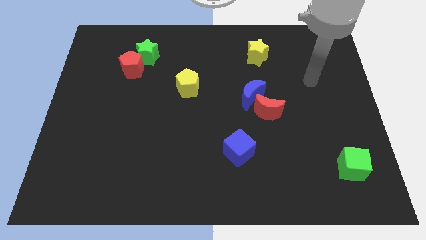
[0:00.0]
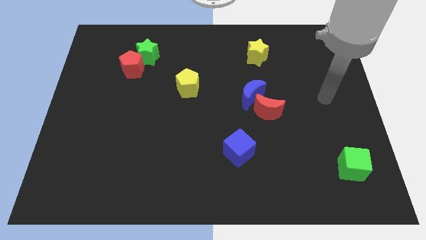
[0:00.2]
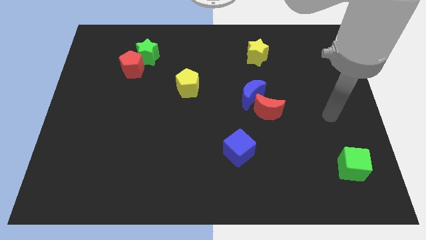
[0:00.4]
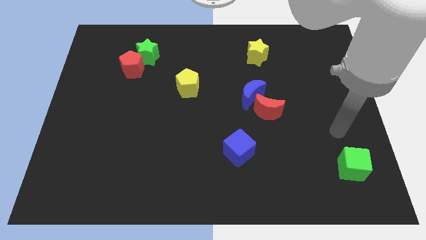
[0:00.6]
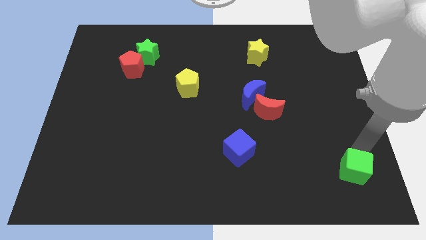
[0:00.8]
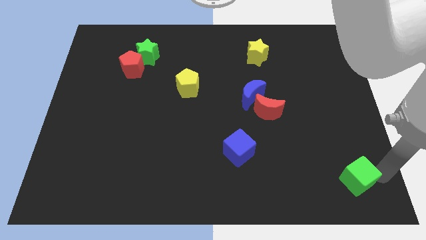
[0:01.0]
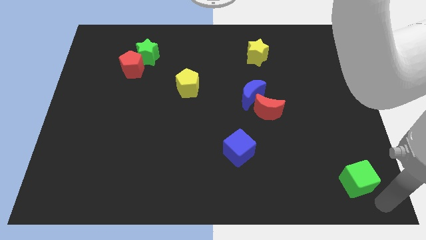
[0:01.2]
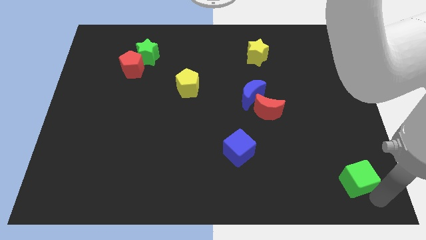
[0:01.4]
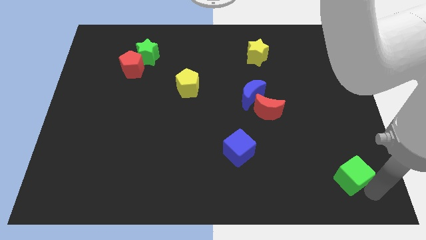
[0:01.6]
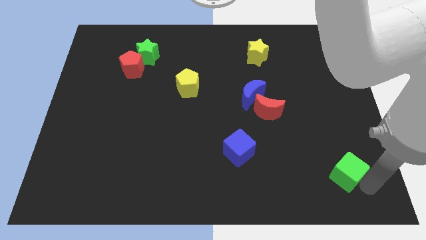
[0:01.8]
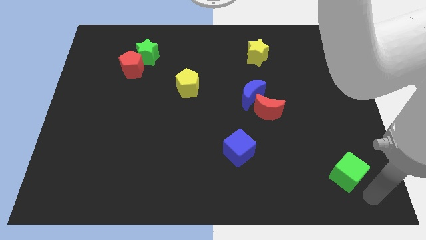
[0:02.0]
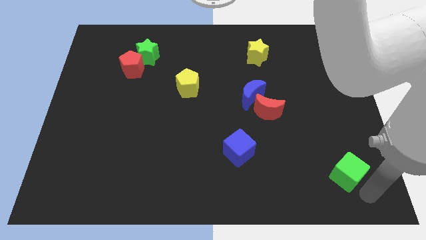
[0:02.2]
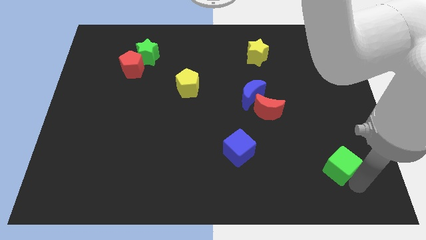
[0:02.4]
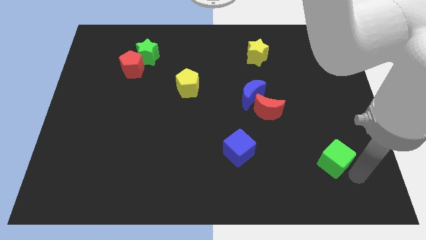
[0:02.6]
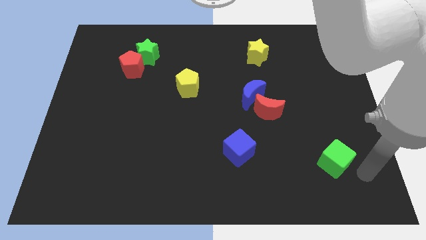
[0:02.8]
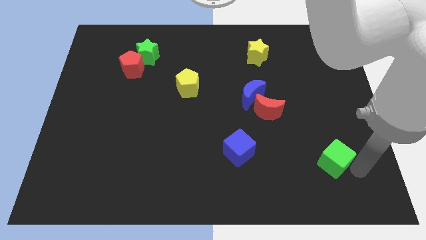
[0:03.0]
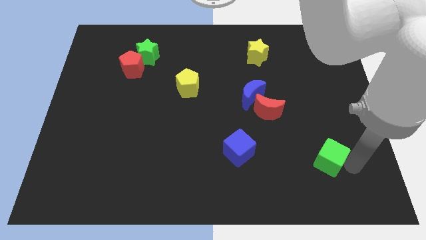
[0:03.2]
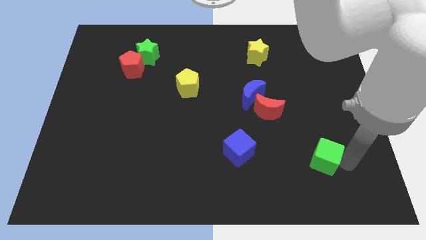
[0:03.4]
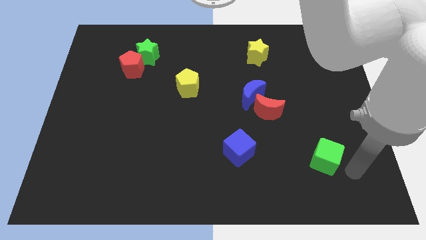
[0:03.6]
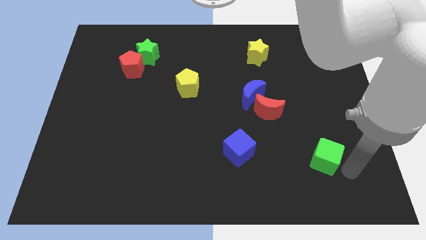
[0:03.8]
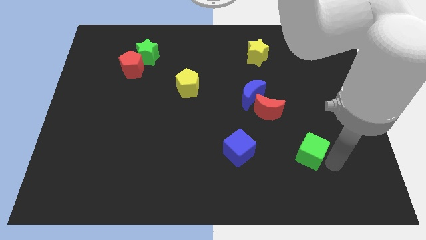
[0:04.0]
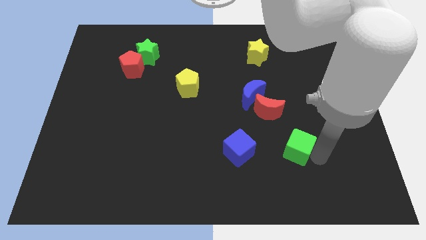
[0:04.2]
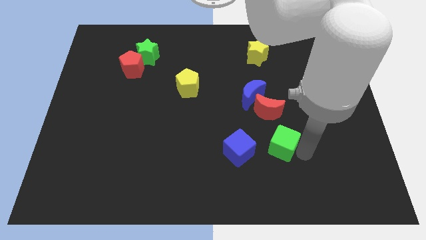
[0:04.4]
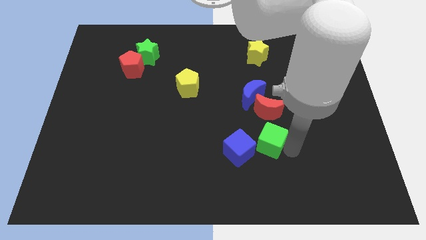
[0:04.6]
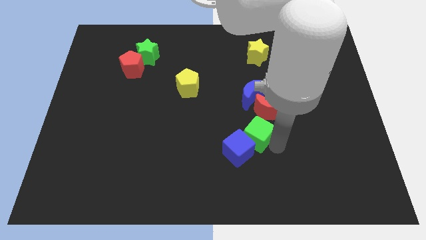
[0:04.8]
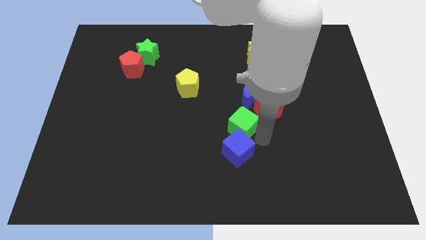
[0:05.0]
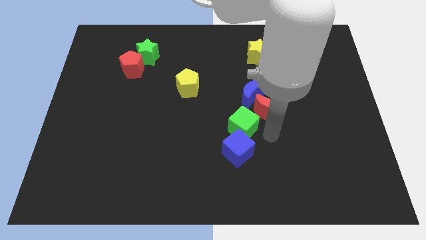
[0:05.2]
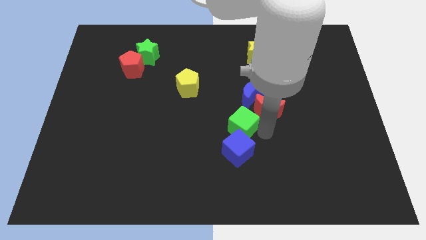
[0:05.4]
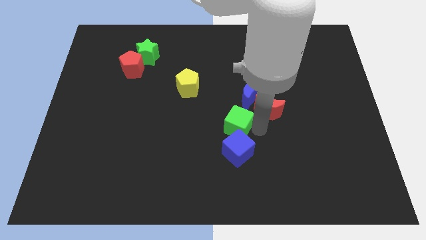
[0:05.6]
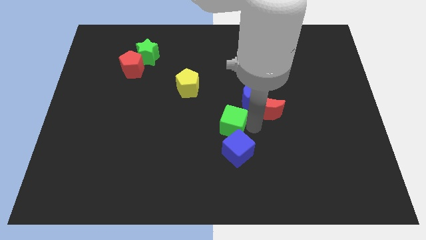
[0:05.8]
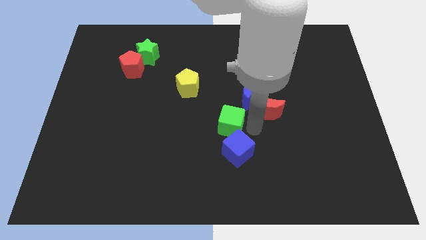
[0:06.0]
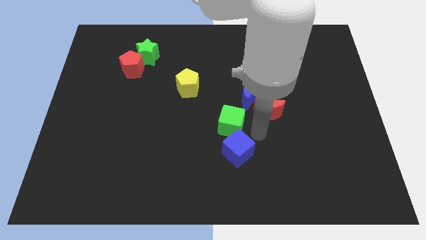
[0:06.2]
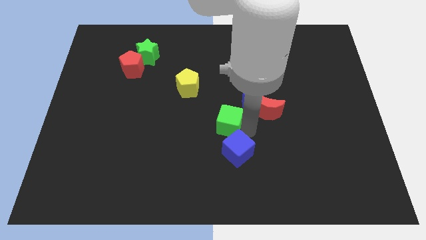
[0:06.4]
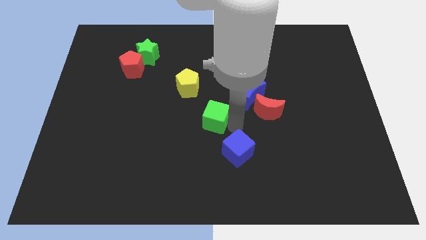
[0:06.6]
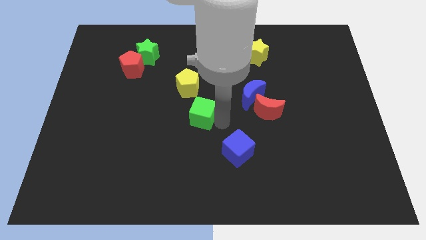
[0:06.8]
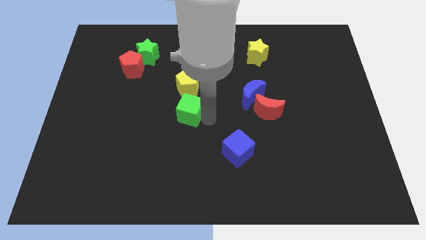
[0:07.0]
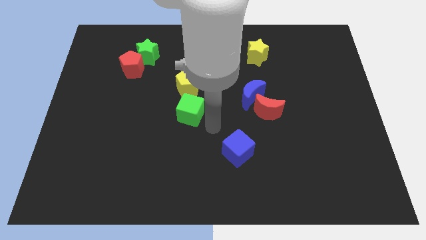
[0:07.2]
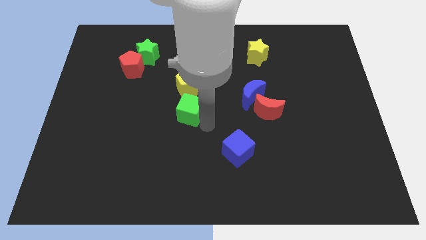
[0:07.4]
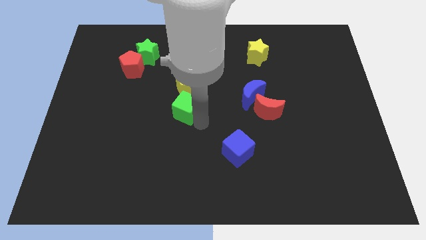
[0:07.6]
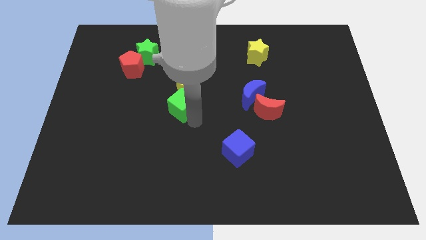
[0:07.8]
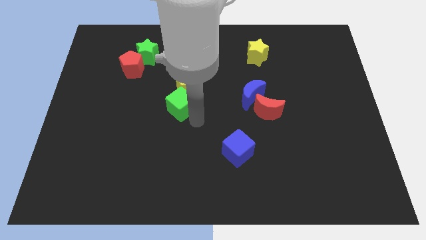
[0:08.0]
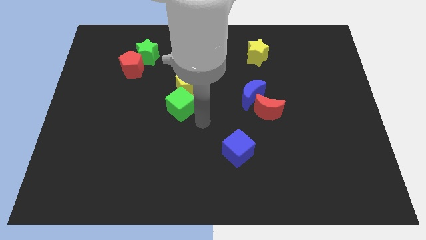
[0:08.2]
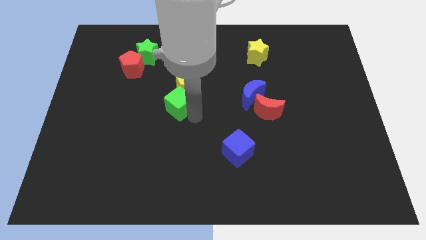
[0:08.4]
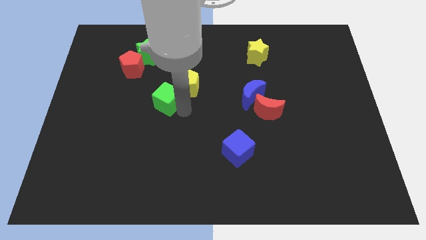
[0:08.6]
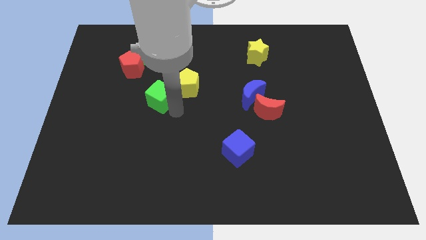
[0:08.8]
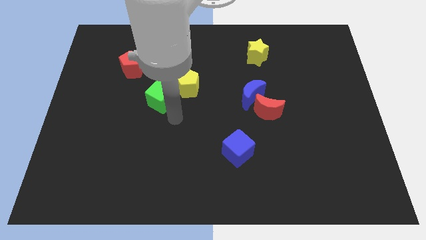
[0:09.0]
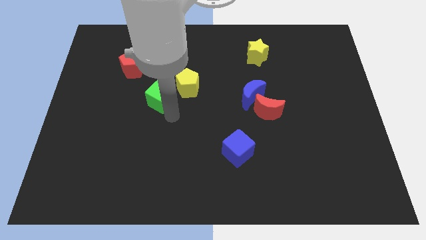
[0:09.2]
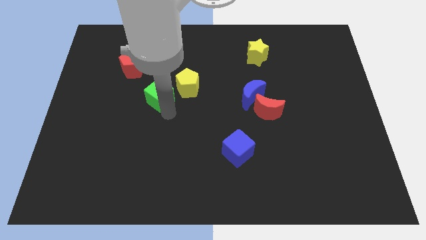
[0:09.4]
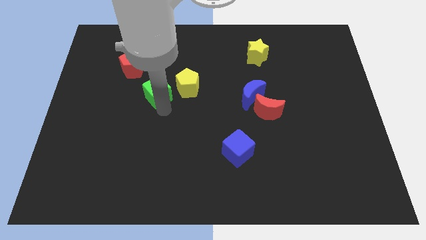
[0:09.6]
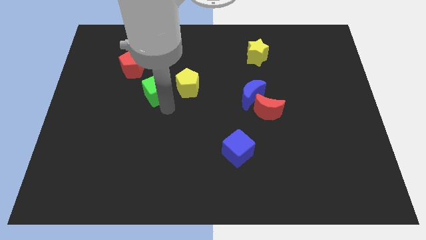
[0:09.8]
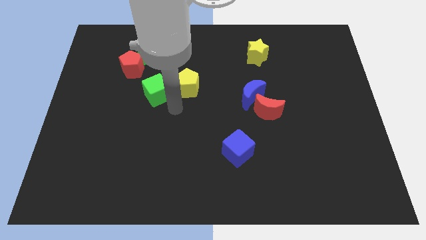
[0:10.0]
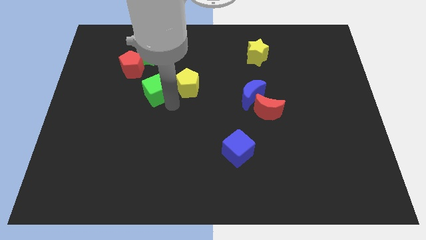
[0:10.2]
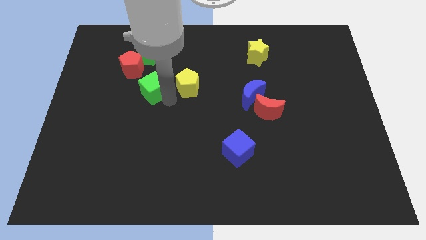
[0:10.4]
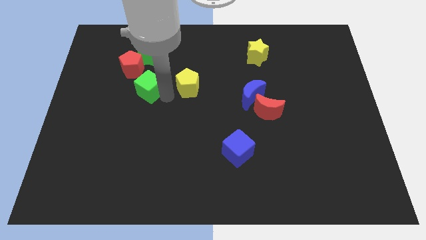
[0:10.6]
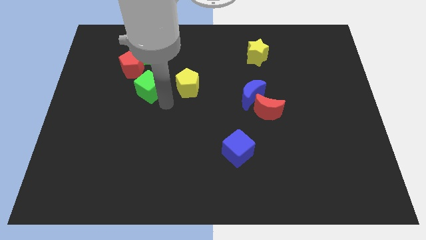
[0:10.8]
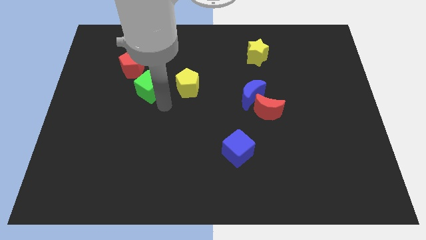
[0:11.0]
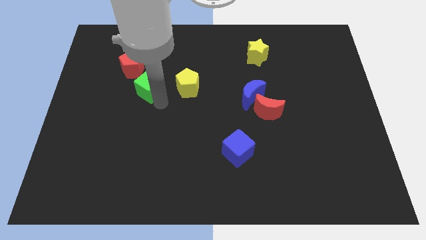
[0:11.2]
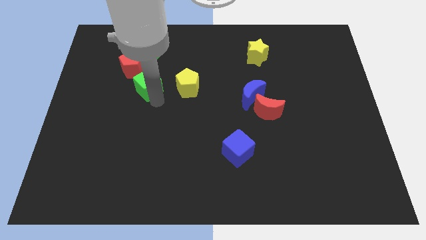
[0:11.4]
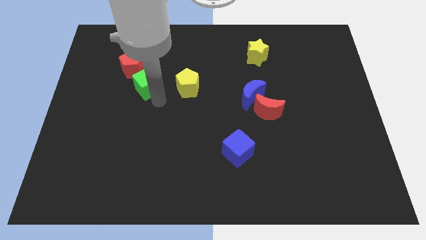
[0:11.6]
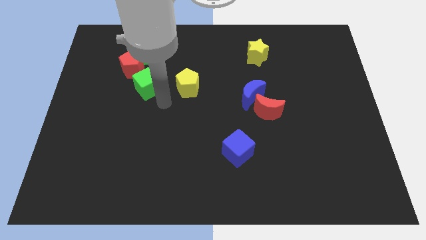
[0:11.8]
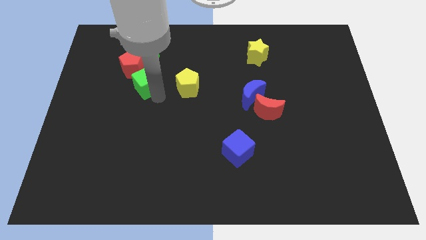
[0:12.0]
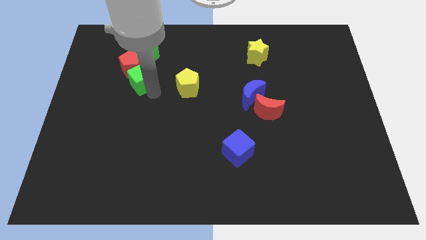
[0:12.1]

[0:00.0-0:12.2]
put the green cube to the red pentagon

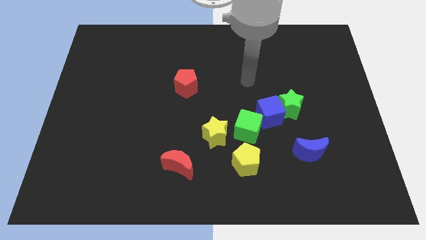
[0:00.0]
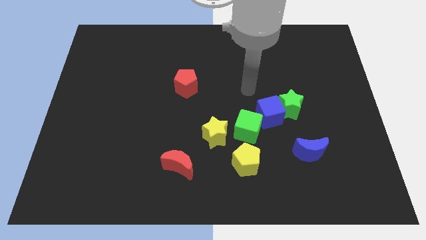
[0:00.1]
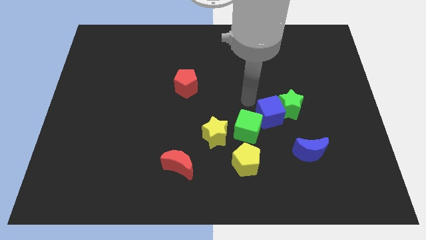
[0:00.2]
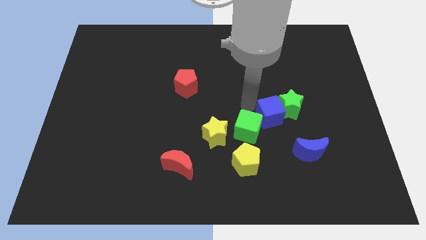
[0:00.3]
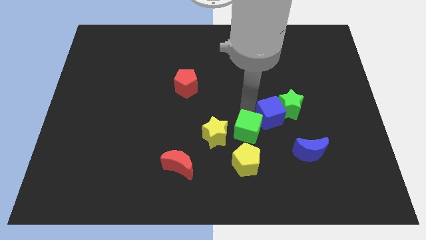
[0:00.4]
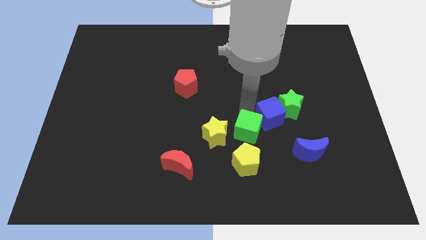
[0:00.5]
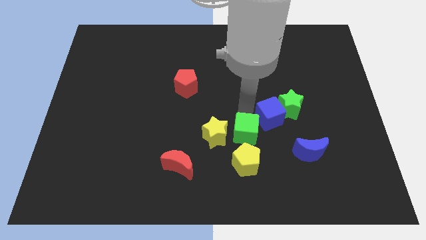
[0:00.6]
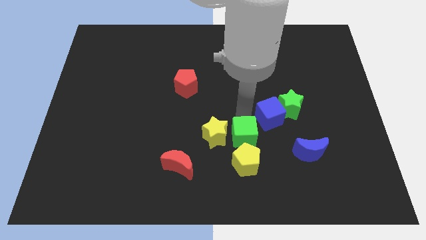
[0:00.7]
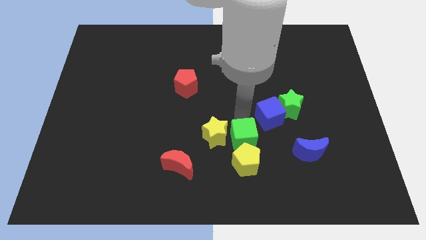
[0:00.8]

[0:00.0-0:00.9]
slide the green cube next to the yellow pentagon
